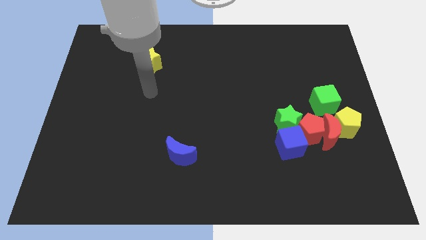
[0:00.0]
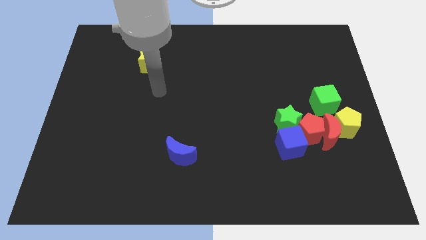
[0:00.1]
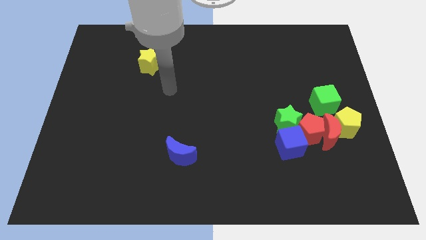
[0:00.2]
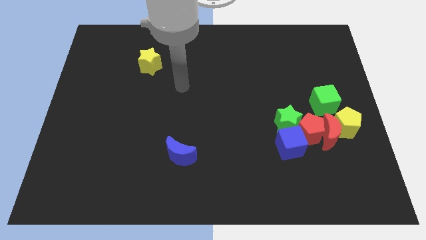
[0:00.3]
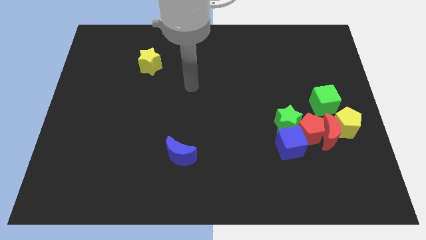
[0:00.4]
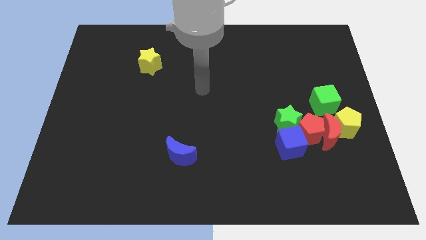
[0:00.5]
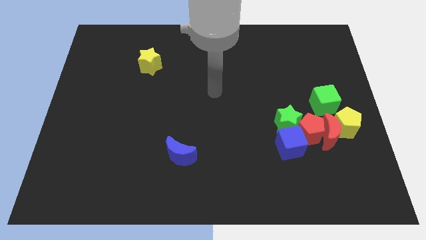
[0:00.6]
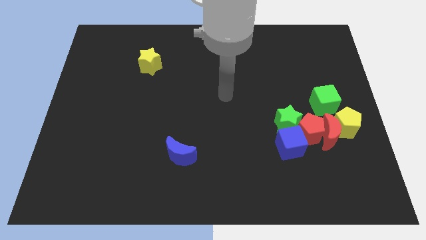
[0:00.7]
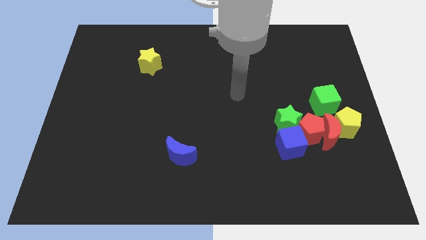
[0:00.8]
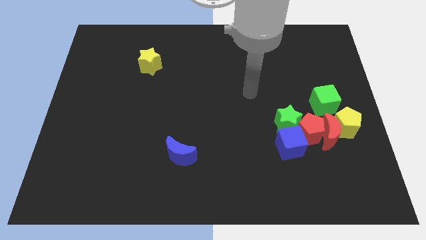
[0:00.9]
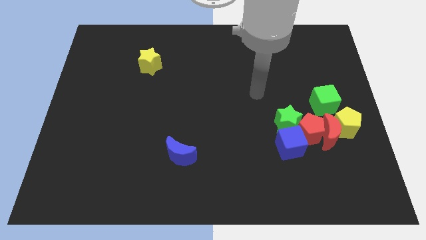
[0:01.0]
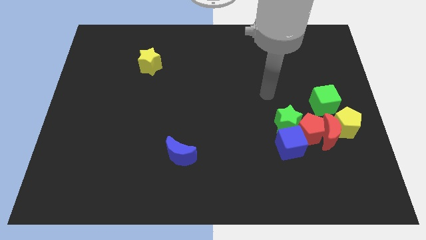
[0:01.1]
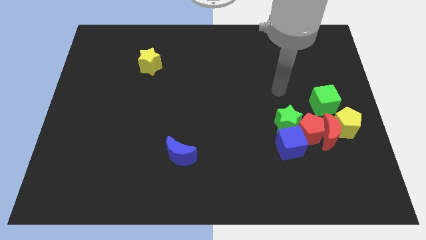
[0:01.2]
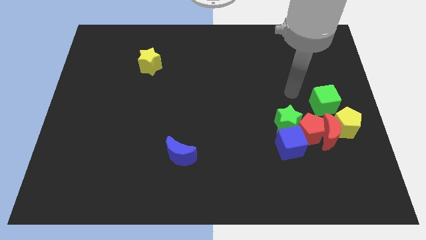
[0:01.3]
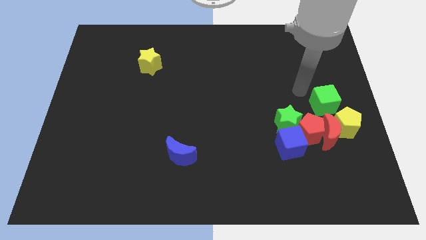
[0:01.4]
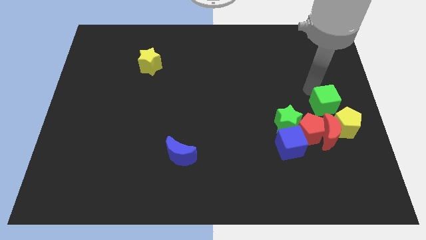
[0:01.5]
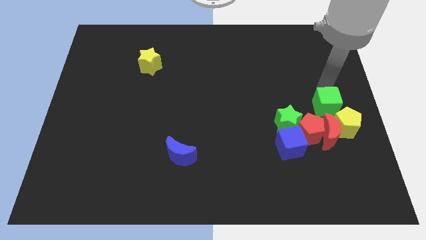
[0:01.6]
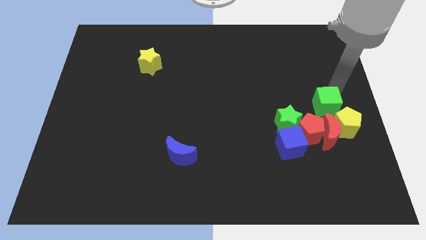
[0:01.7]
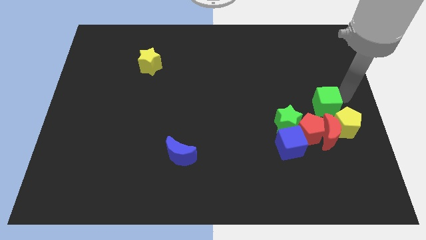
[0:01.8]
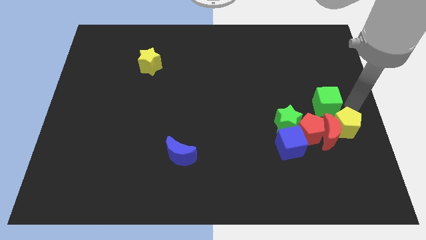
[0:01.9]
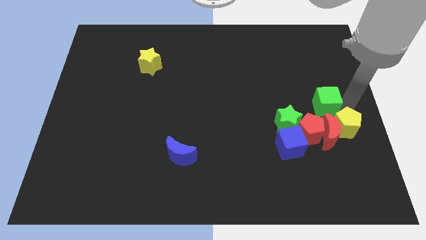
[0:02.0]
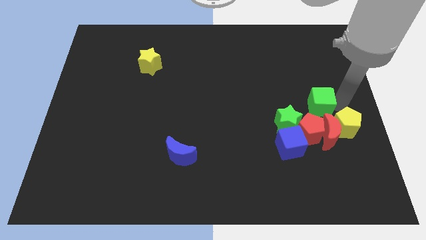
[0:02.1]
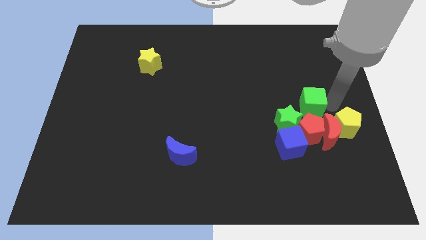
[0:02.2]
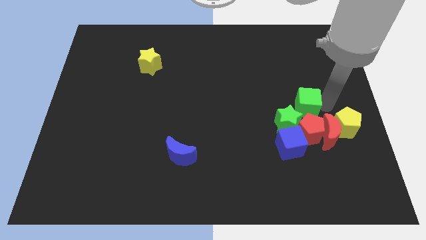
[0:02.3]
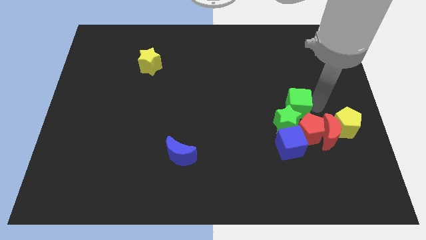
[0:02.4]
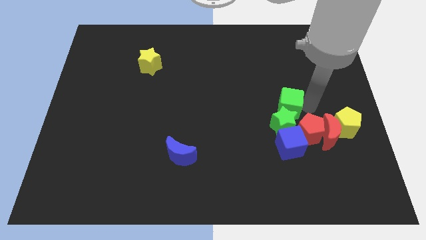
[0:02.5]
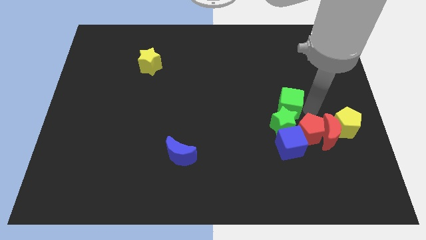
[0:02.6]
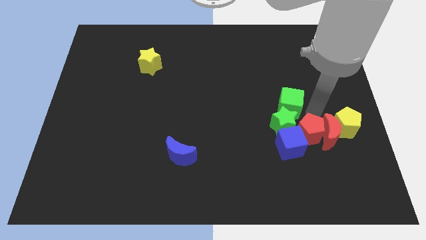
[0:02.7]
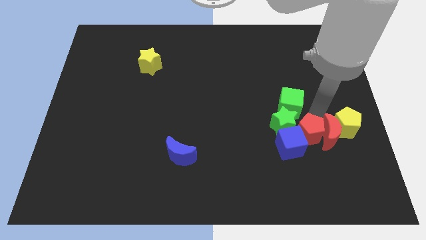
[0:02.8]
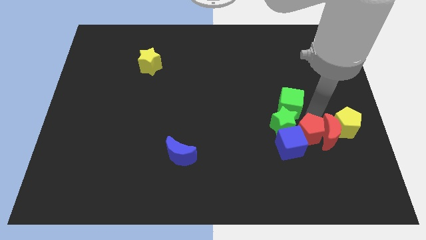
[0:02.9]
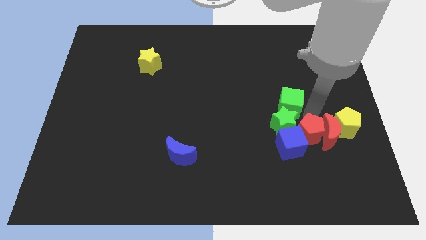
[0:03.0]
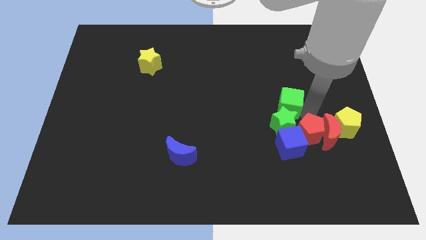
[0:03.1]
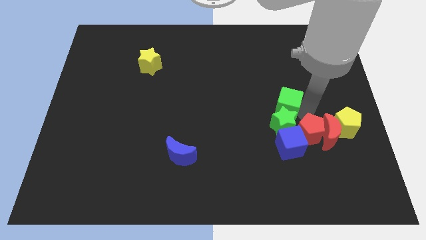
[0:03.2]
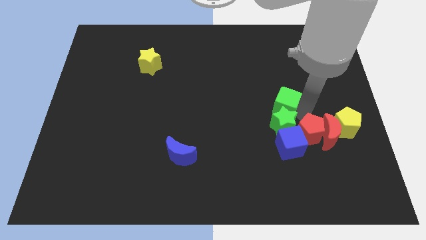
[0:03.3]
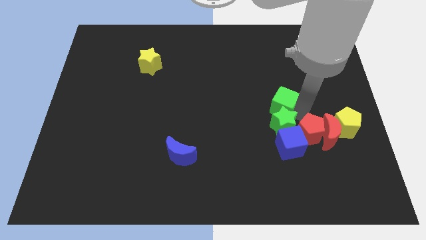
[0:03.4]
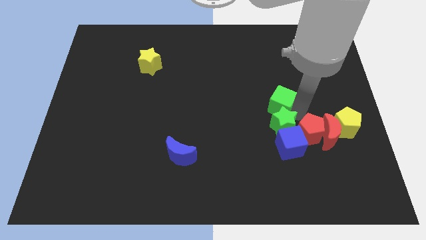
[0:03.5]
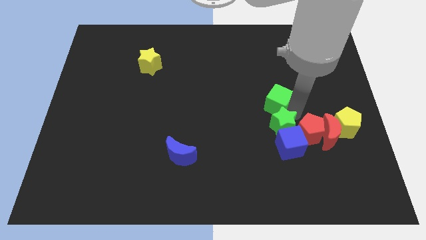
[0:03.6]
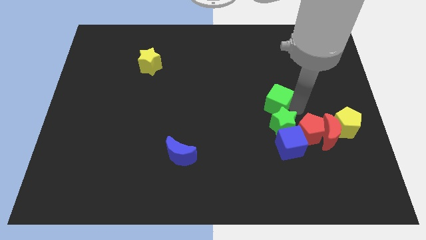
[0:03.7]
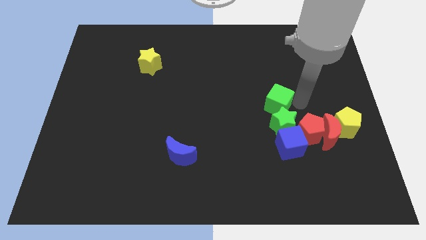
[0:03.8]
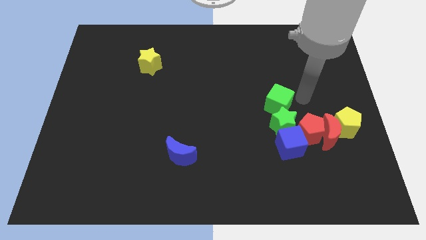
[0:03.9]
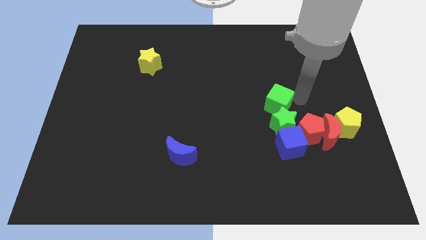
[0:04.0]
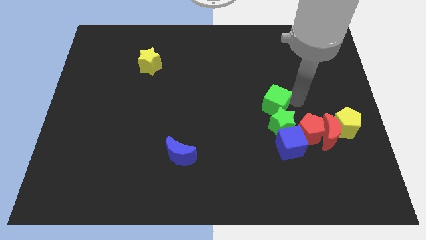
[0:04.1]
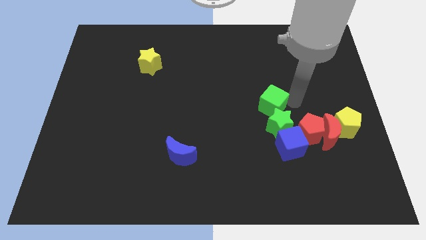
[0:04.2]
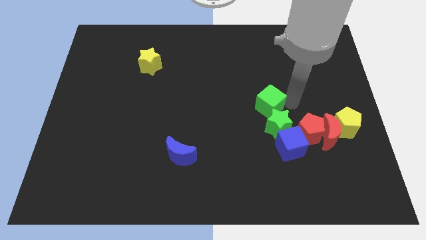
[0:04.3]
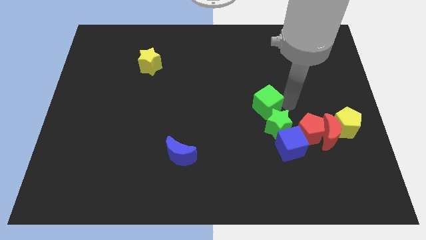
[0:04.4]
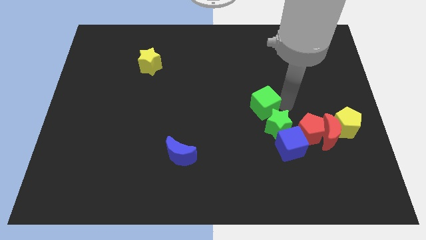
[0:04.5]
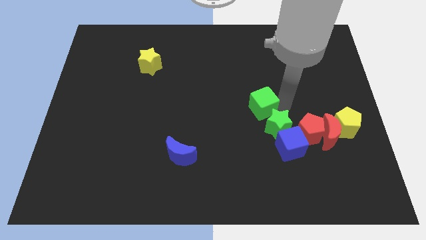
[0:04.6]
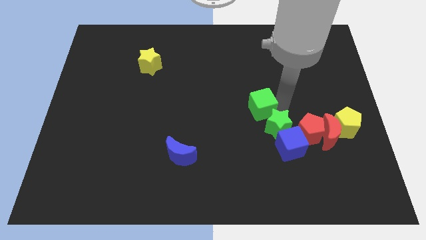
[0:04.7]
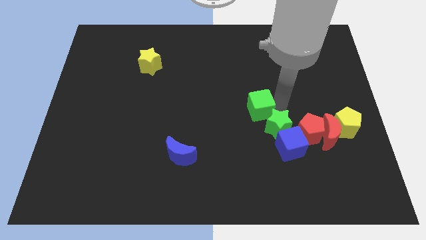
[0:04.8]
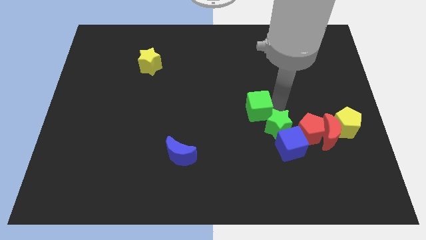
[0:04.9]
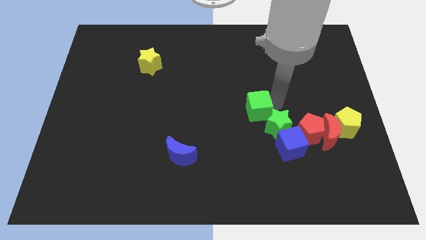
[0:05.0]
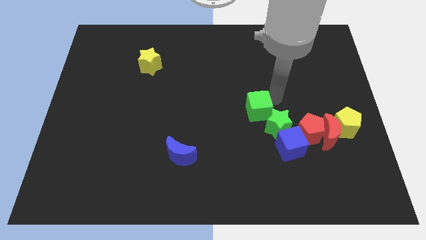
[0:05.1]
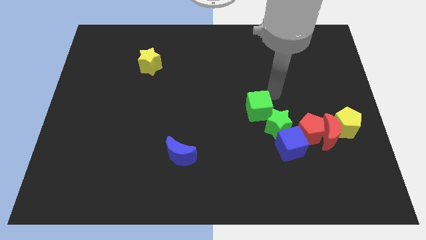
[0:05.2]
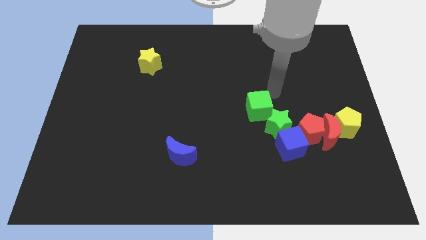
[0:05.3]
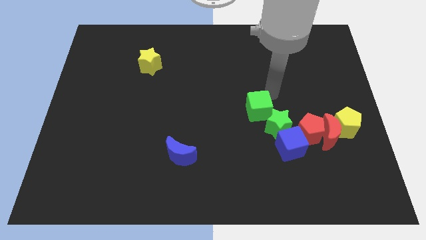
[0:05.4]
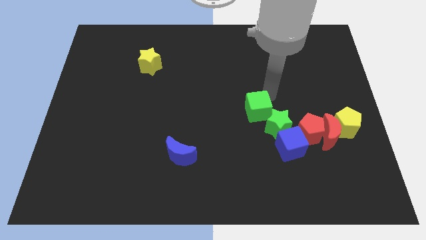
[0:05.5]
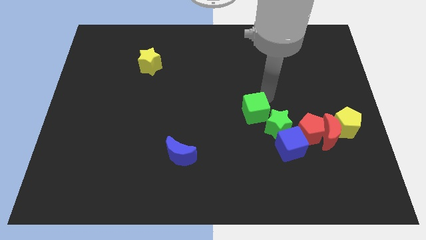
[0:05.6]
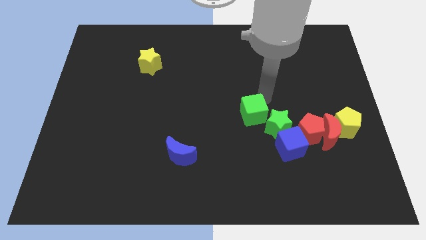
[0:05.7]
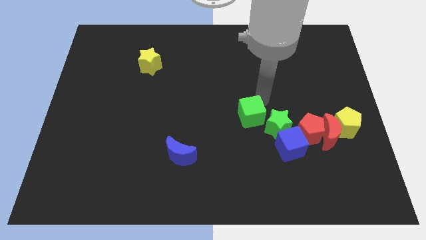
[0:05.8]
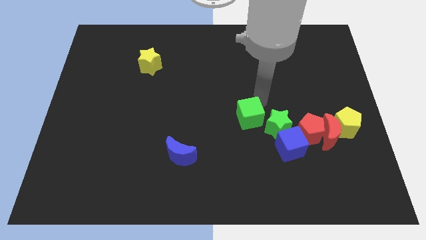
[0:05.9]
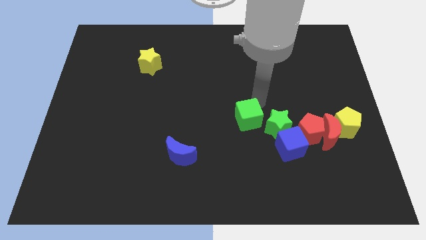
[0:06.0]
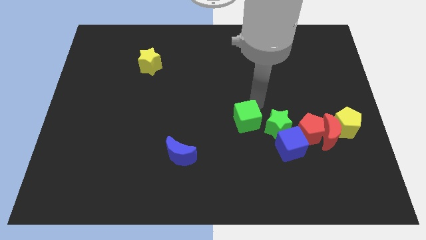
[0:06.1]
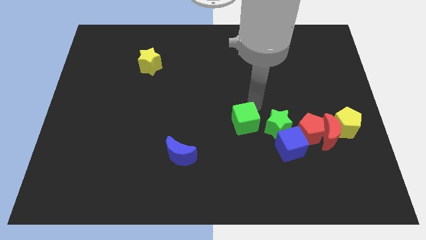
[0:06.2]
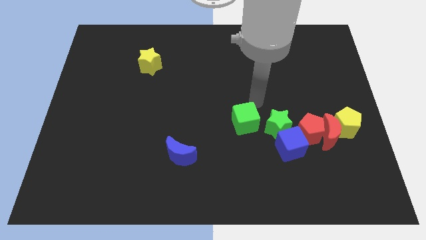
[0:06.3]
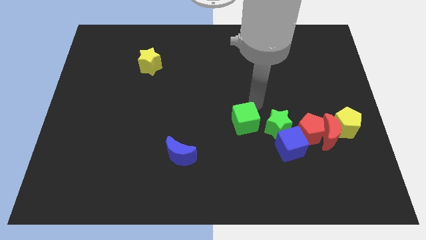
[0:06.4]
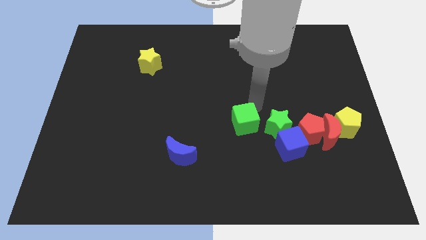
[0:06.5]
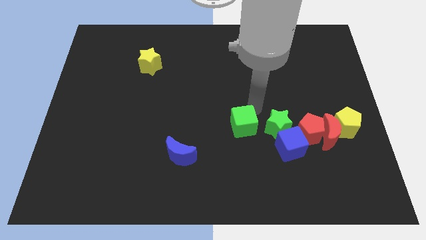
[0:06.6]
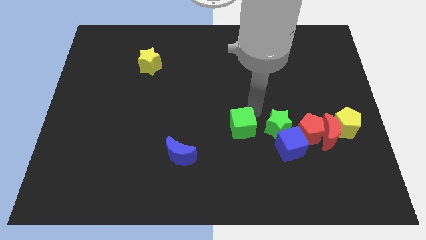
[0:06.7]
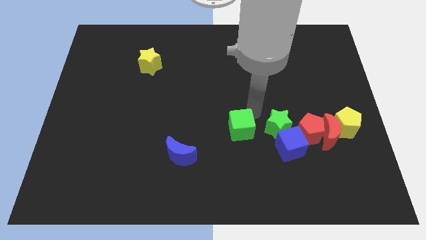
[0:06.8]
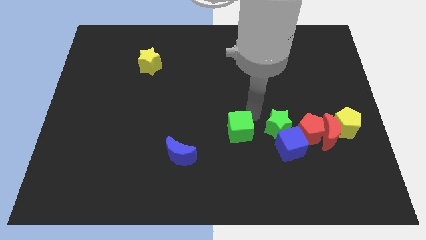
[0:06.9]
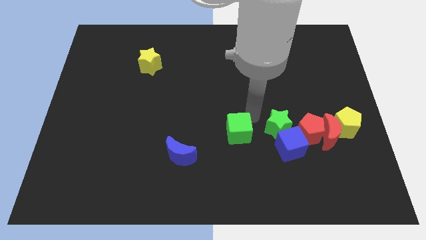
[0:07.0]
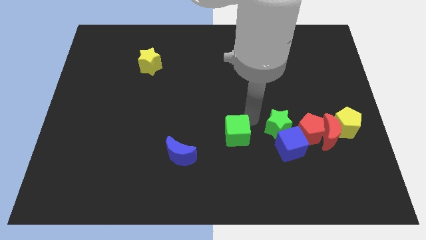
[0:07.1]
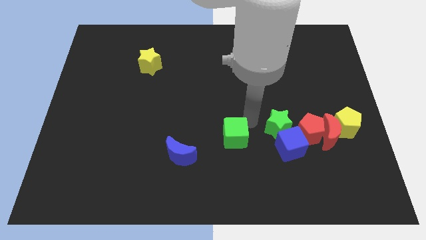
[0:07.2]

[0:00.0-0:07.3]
put the green cube to the right side of the blue moon

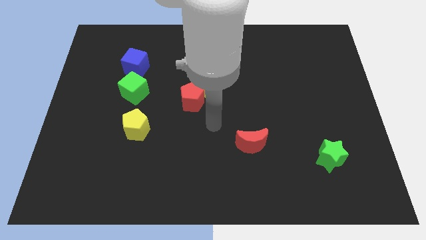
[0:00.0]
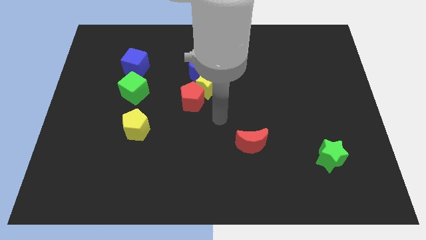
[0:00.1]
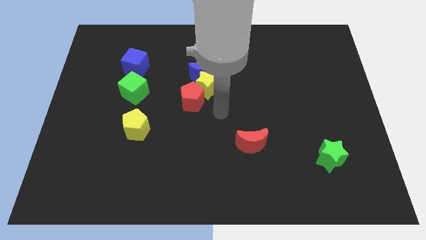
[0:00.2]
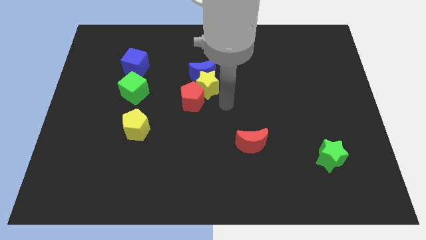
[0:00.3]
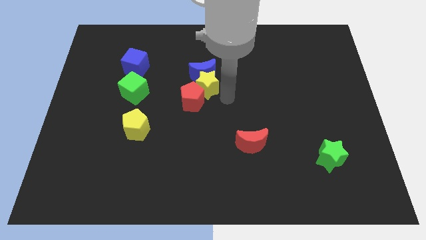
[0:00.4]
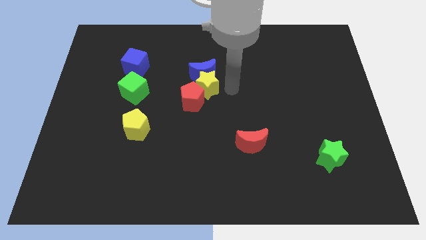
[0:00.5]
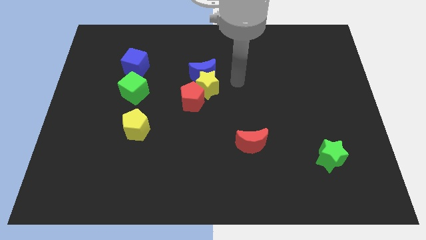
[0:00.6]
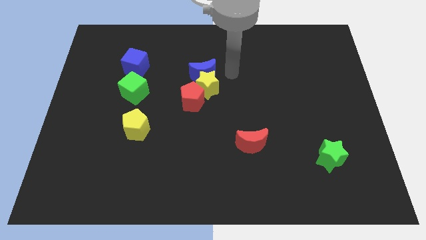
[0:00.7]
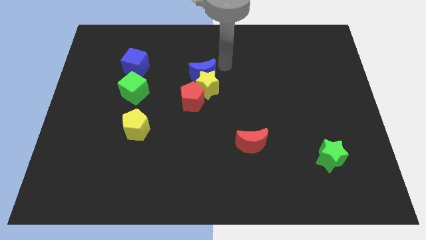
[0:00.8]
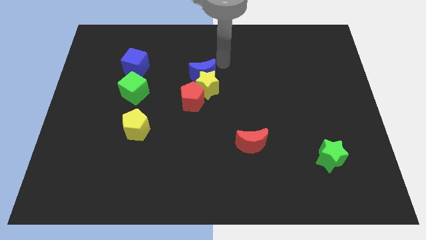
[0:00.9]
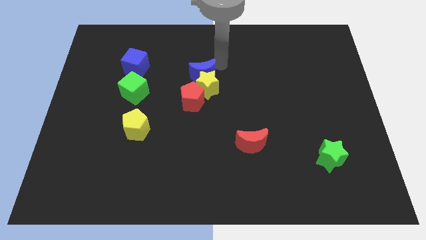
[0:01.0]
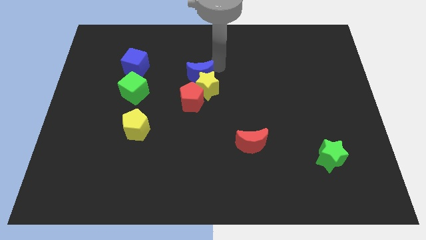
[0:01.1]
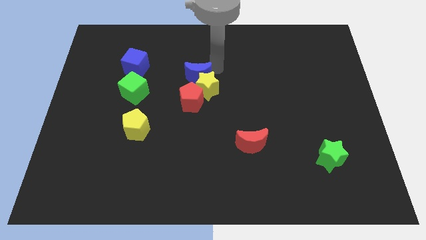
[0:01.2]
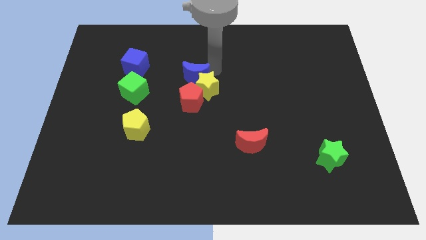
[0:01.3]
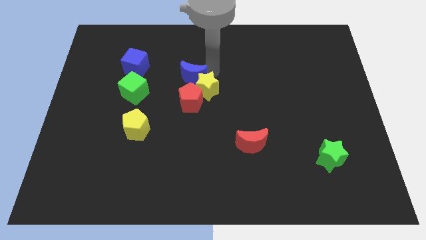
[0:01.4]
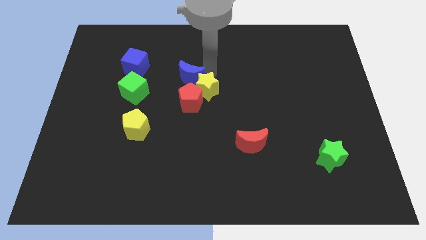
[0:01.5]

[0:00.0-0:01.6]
move the blue moon just right of the green cube
